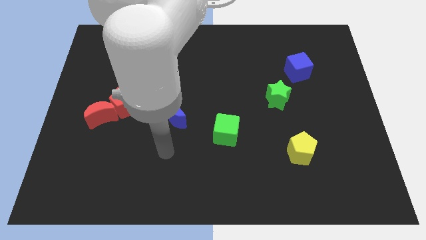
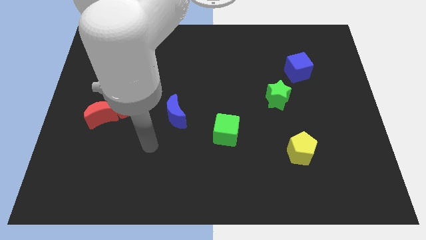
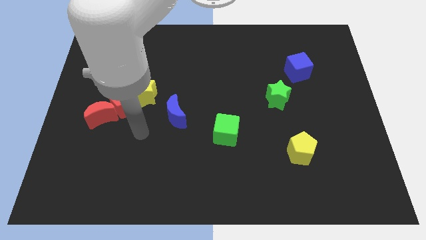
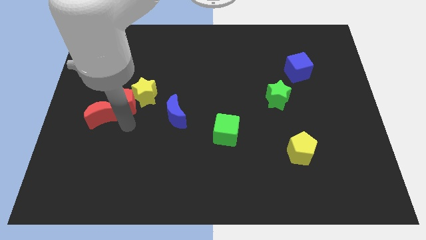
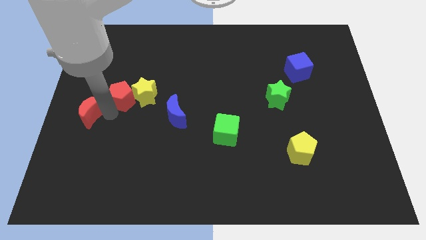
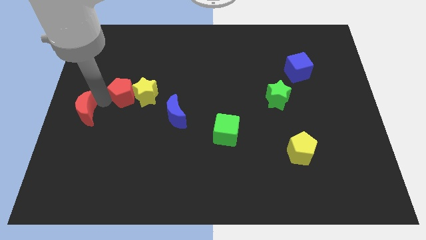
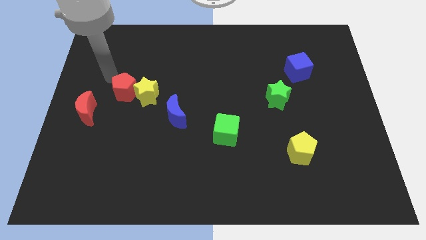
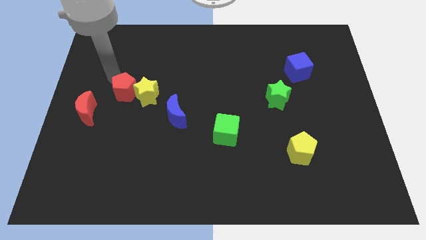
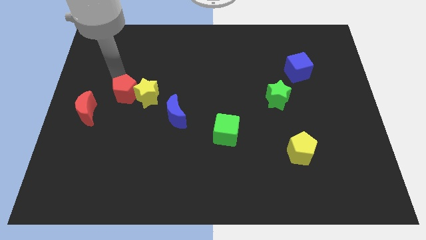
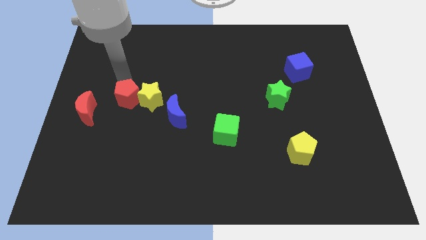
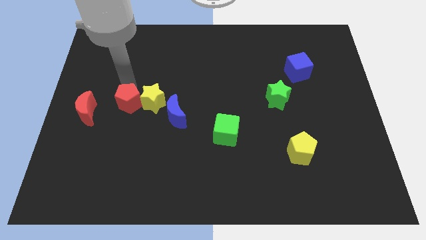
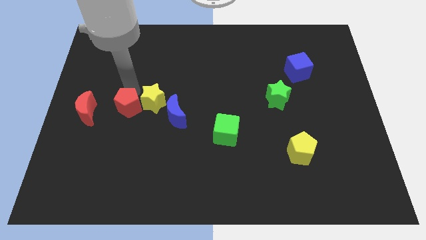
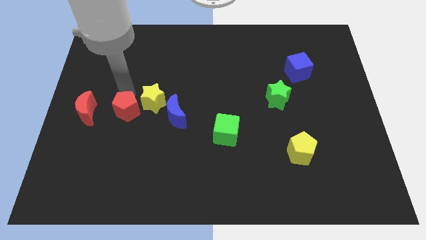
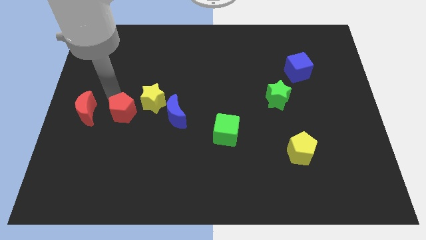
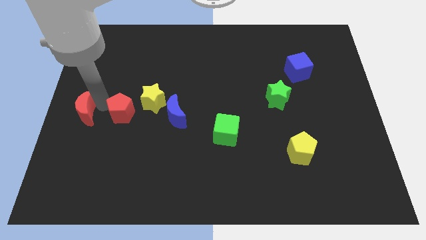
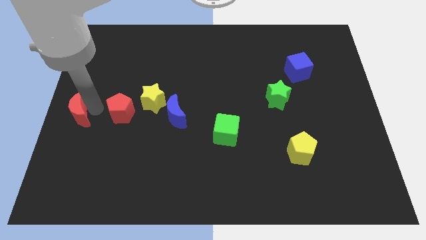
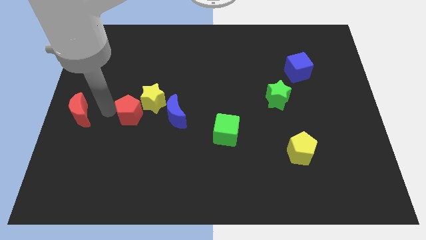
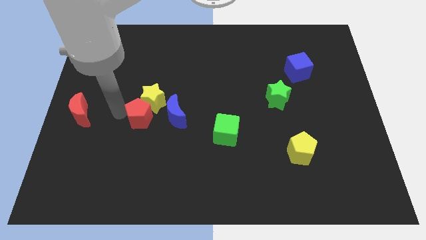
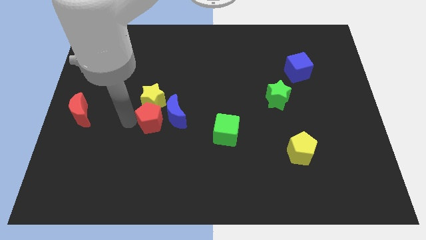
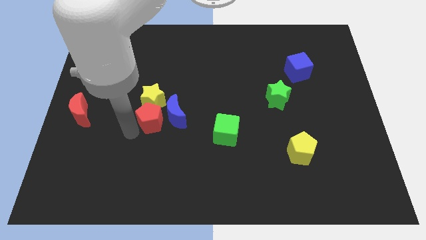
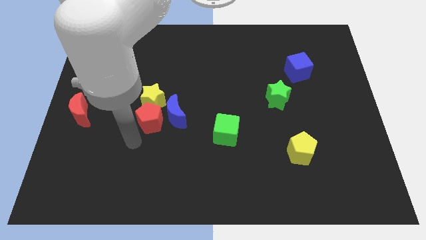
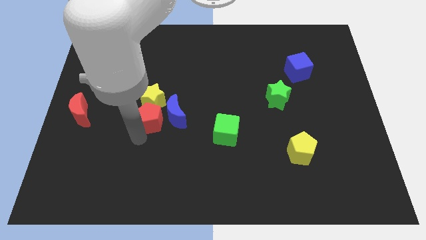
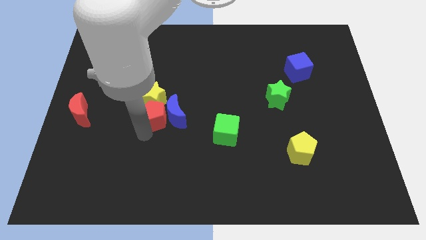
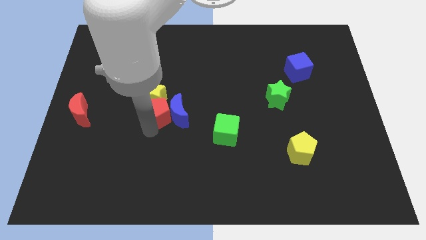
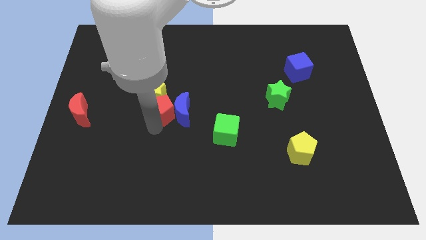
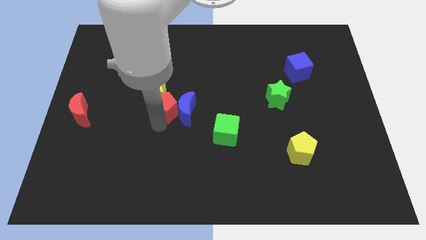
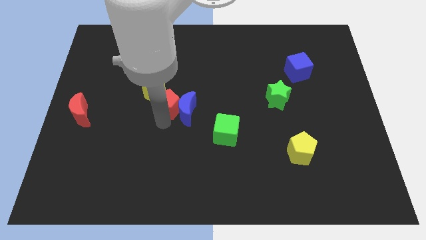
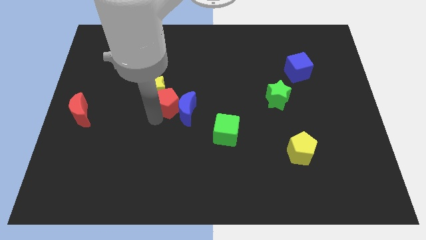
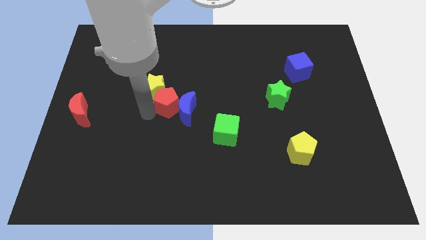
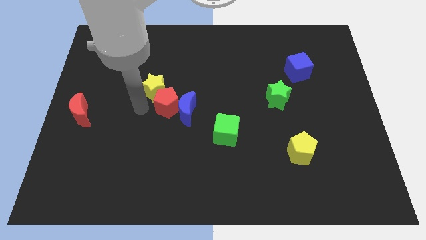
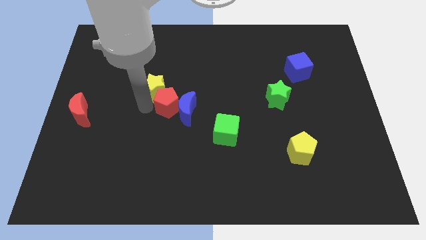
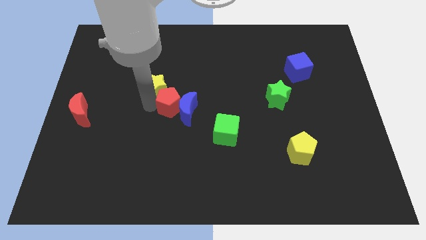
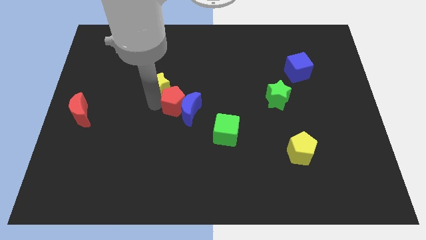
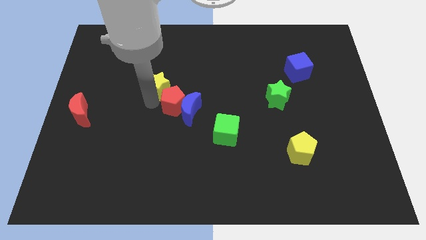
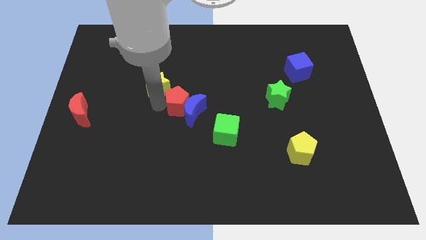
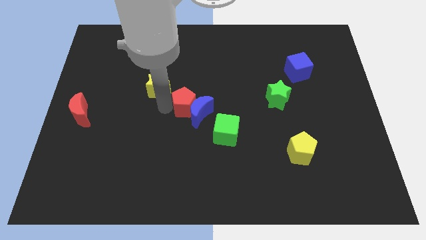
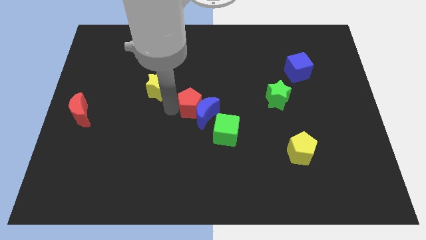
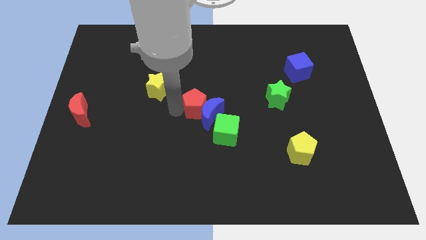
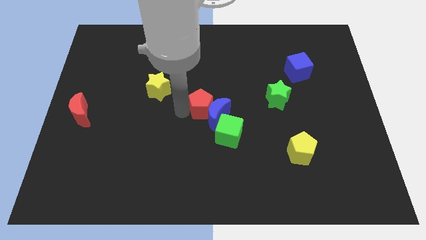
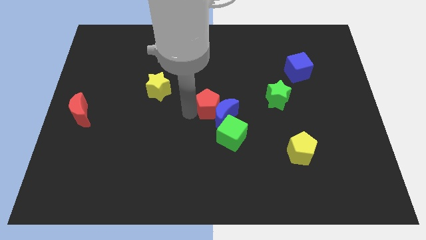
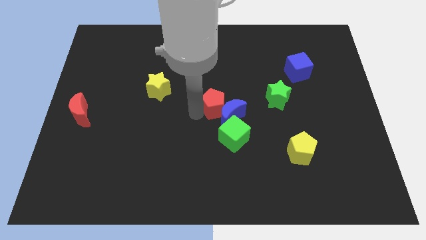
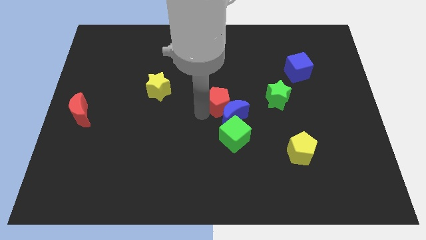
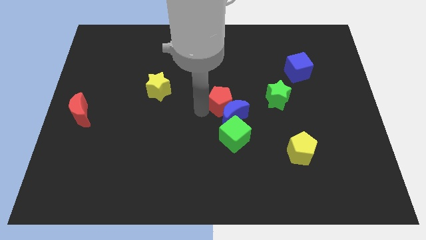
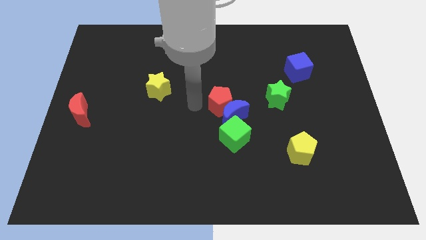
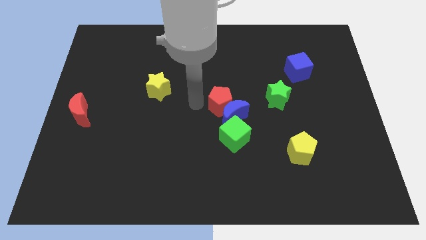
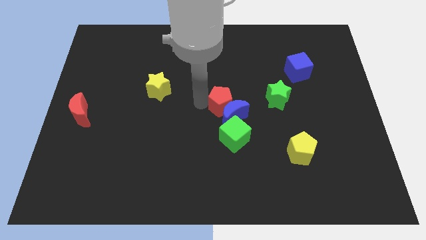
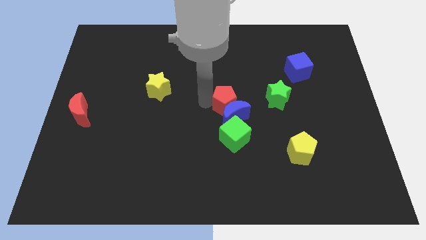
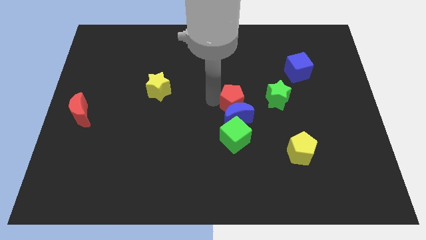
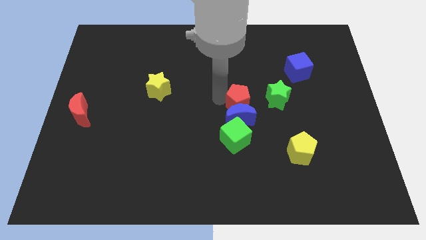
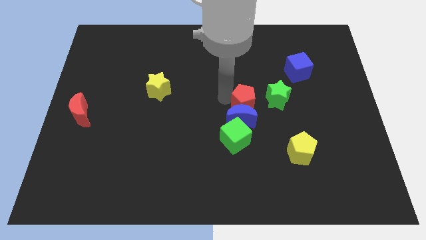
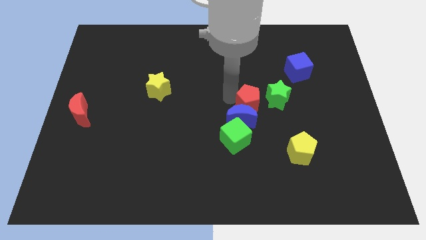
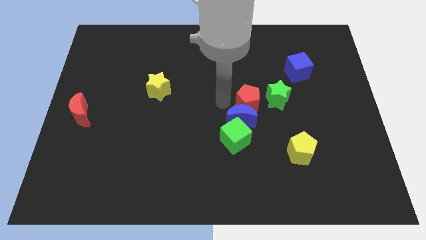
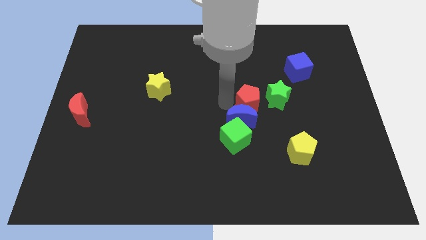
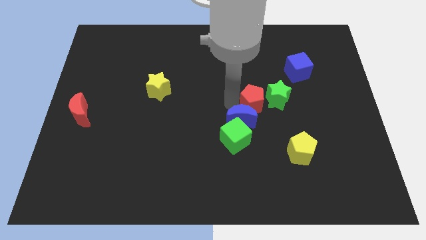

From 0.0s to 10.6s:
put the red pentagon close to the green star

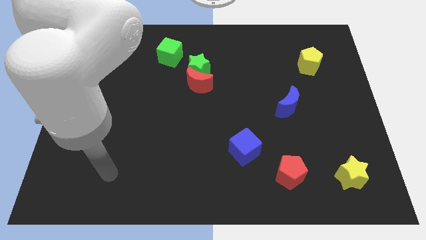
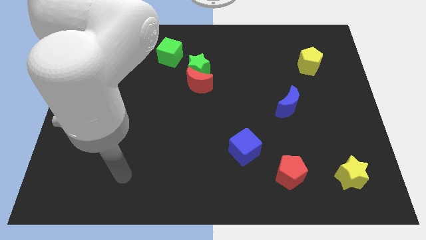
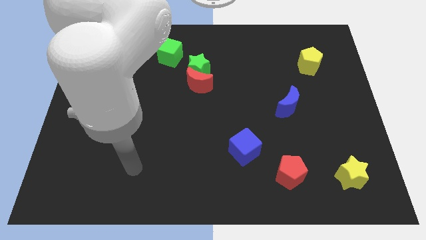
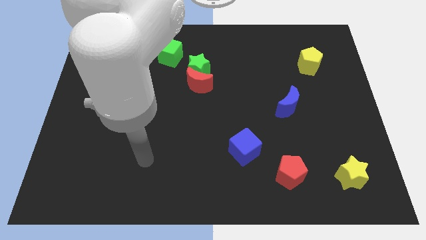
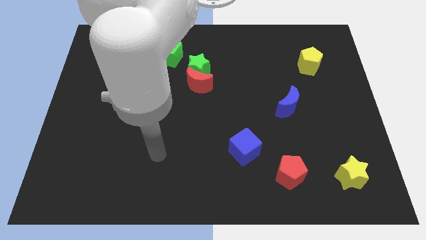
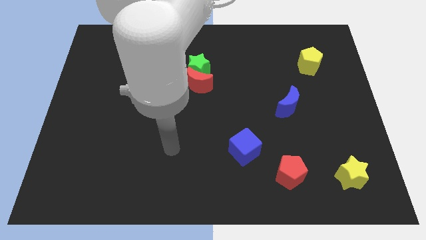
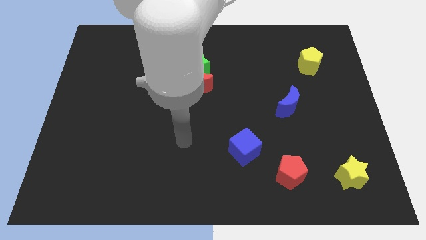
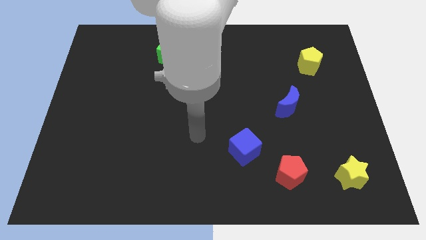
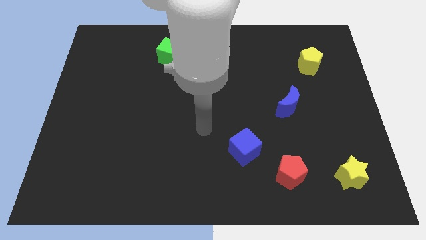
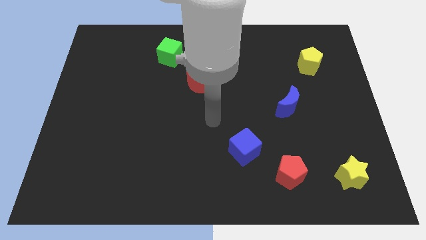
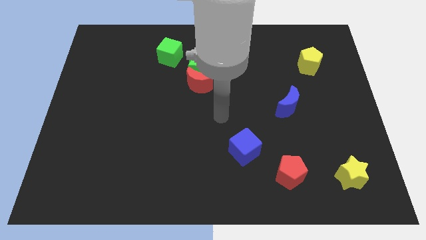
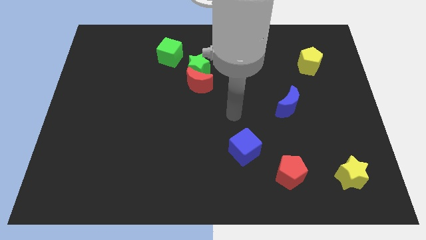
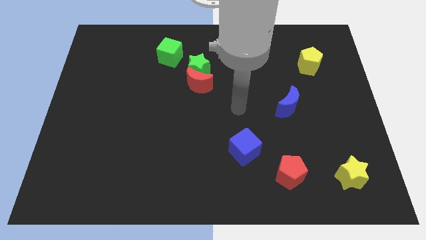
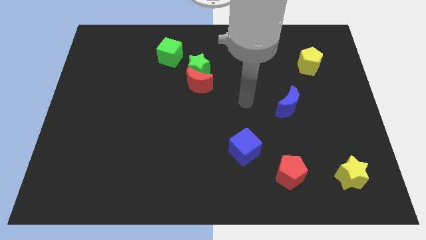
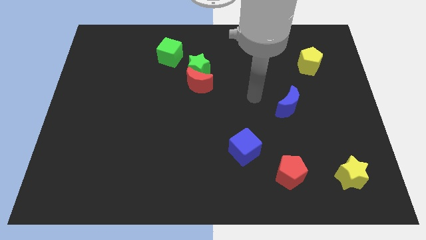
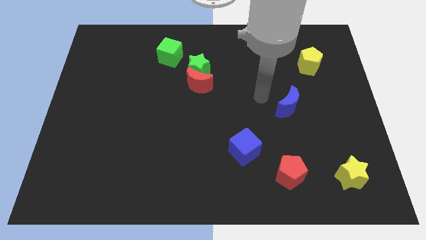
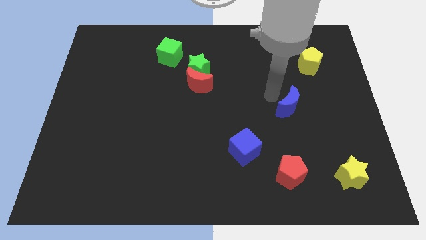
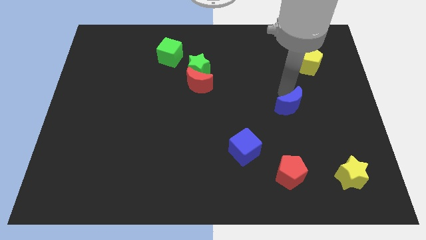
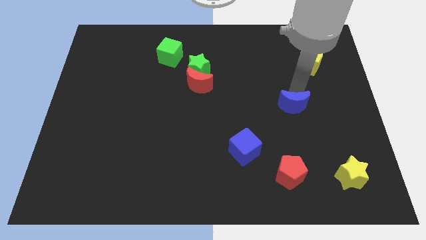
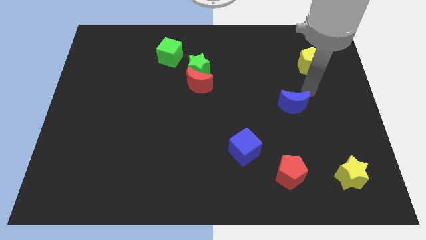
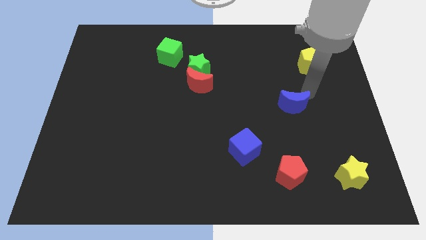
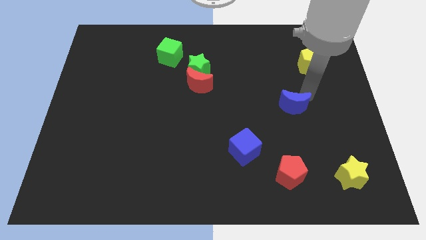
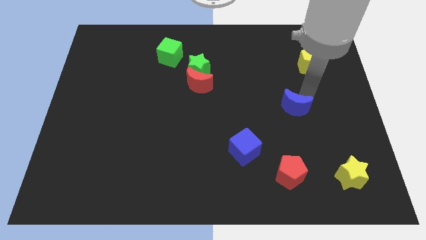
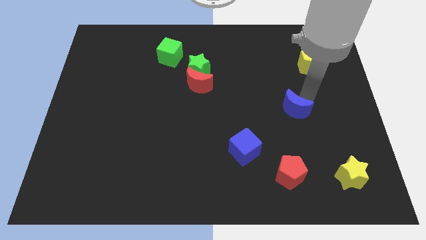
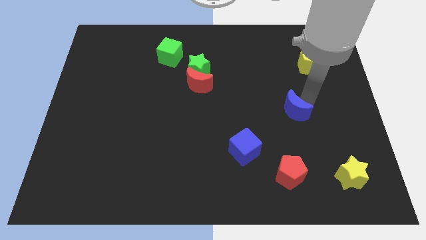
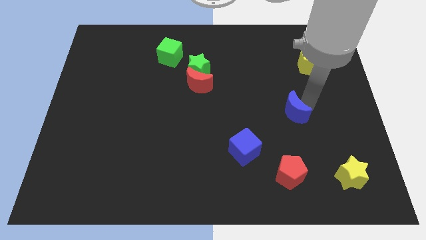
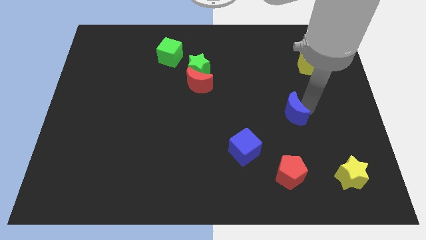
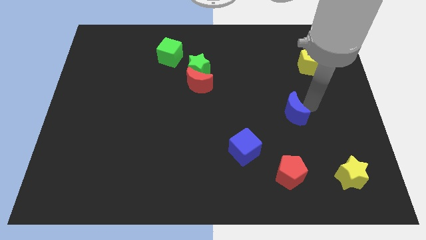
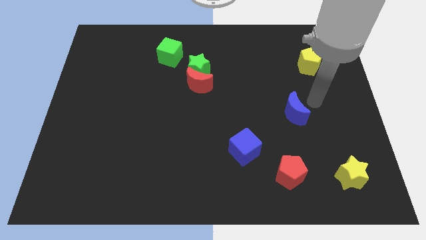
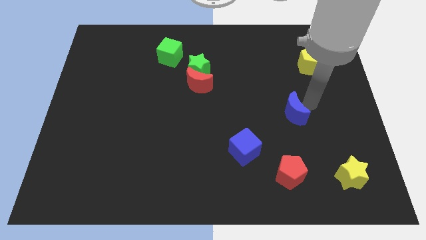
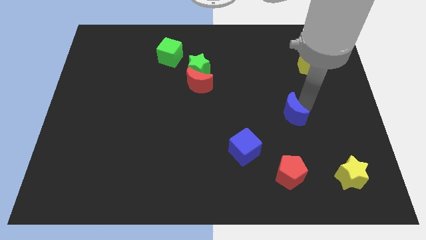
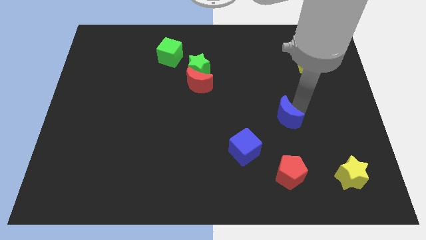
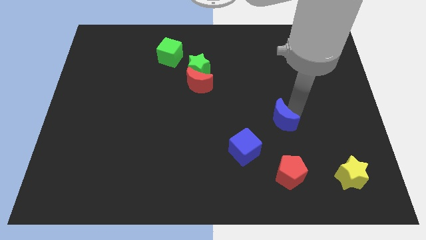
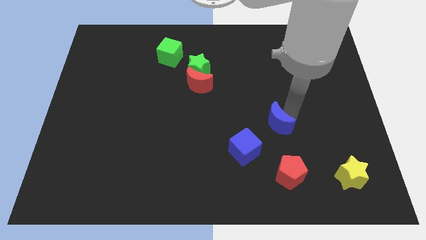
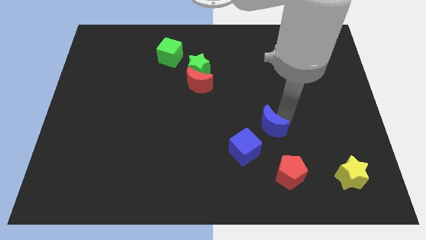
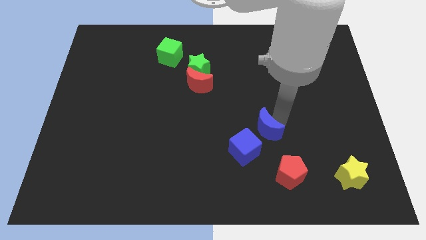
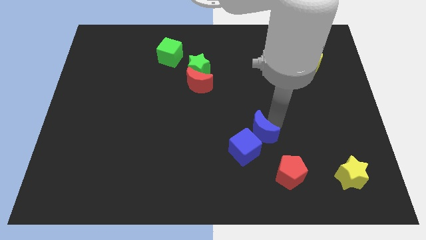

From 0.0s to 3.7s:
slide the blue moon close to the blue cube
